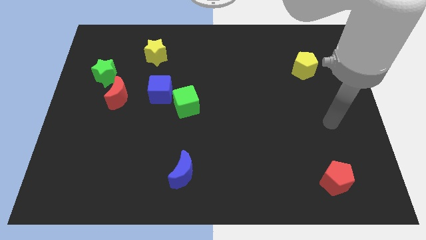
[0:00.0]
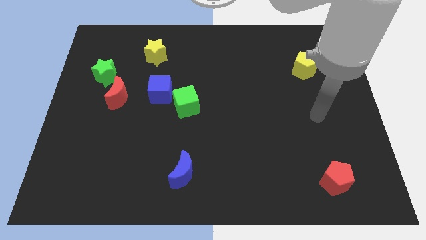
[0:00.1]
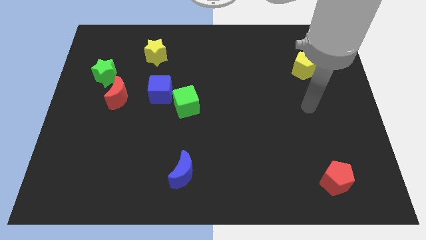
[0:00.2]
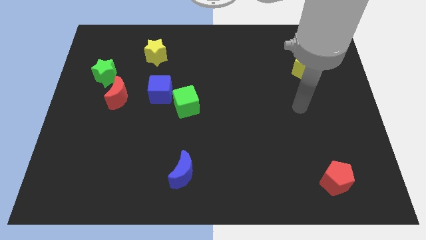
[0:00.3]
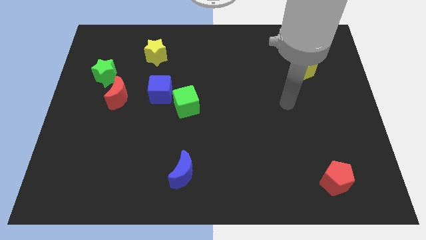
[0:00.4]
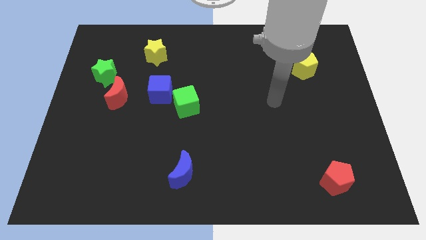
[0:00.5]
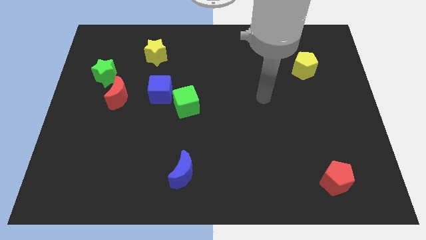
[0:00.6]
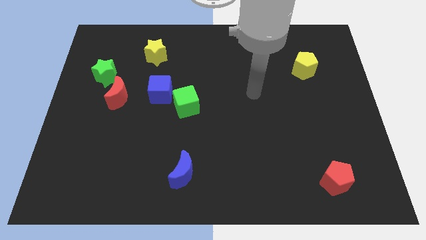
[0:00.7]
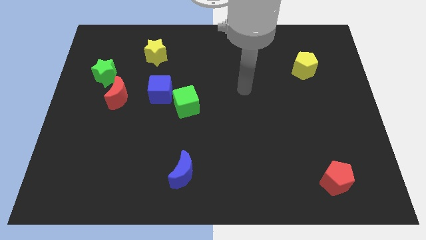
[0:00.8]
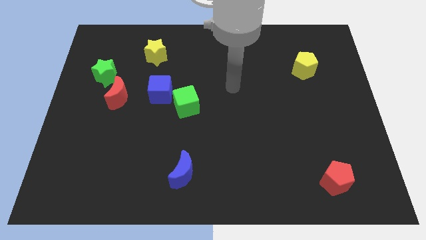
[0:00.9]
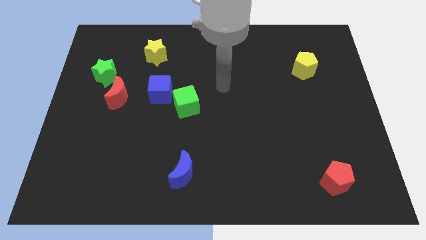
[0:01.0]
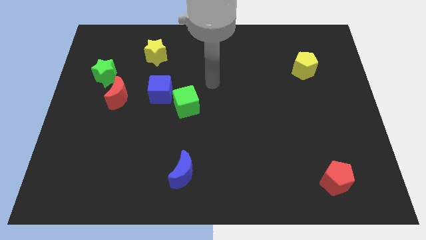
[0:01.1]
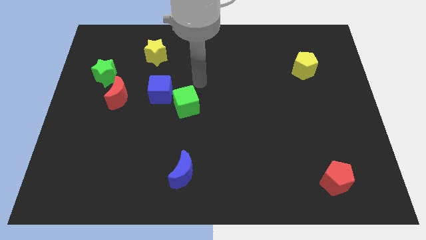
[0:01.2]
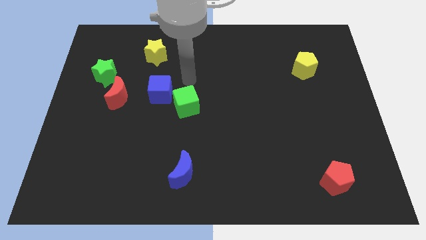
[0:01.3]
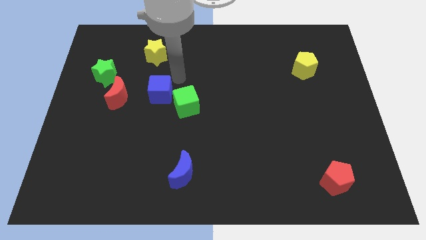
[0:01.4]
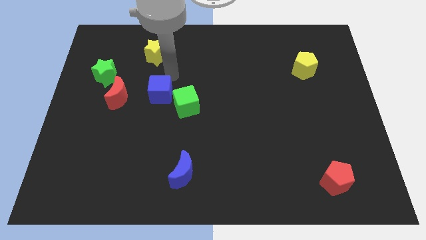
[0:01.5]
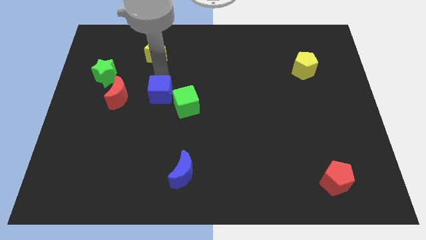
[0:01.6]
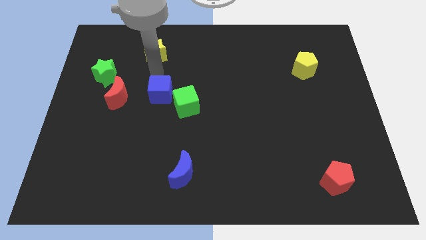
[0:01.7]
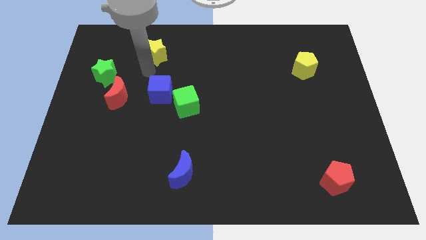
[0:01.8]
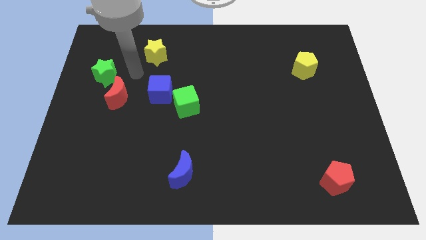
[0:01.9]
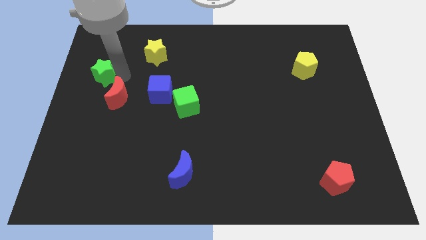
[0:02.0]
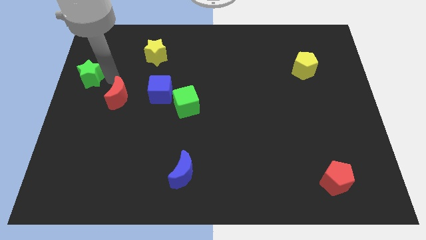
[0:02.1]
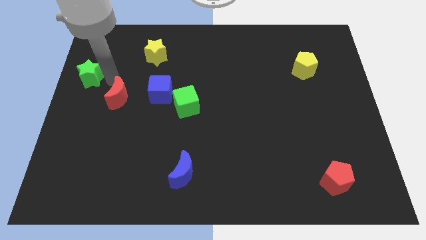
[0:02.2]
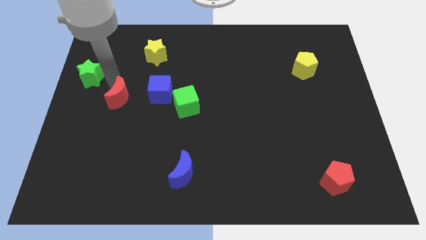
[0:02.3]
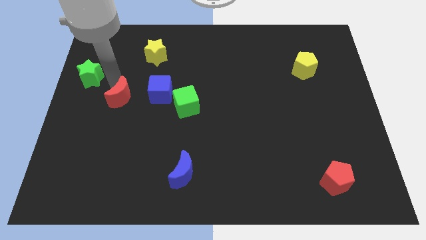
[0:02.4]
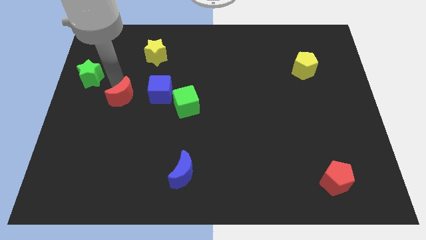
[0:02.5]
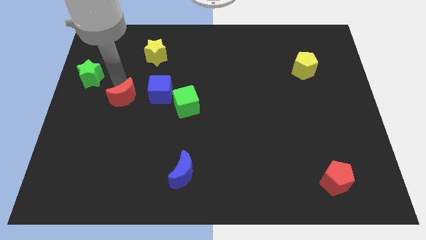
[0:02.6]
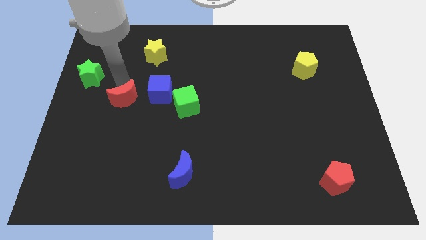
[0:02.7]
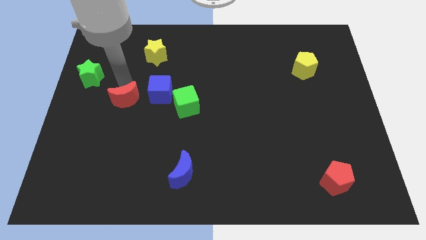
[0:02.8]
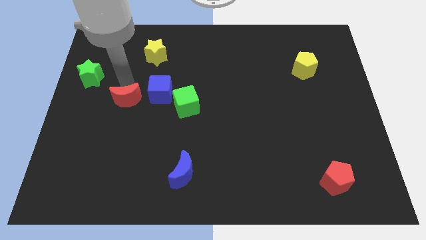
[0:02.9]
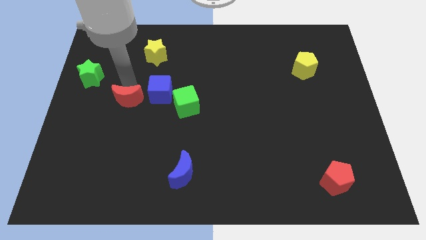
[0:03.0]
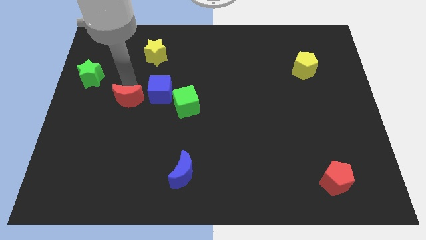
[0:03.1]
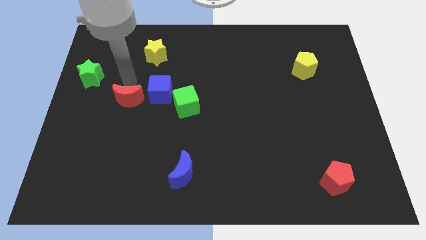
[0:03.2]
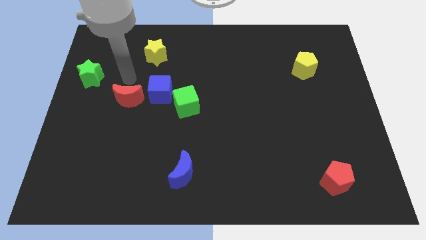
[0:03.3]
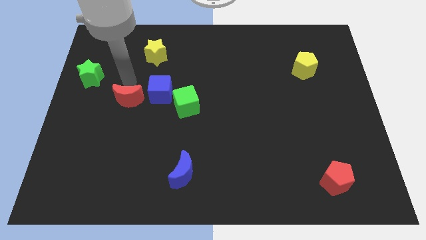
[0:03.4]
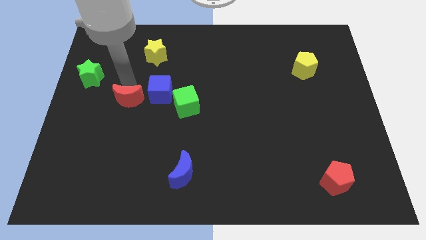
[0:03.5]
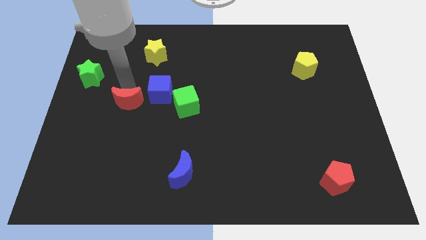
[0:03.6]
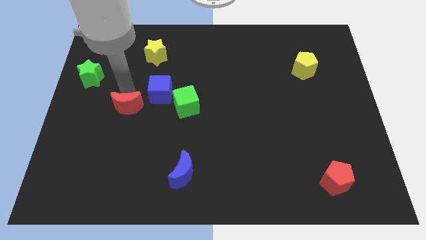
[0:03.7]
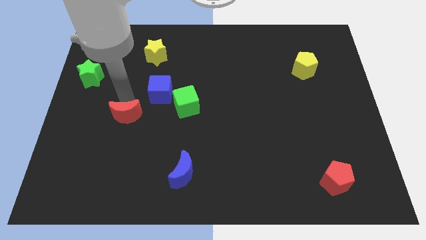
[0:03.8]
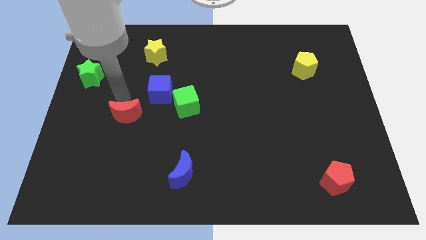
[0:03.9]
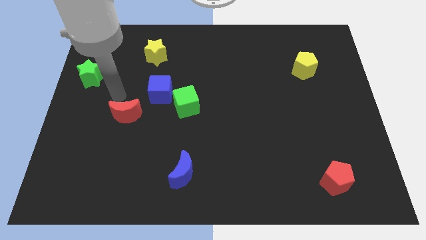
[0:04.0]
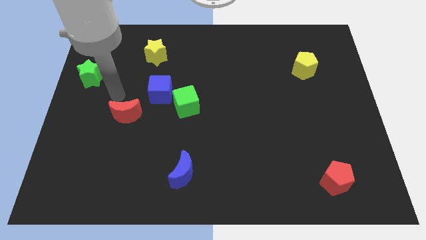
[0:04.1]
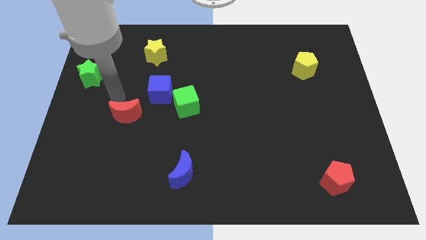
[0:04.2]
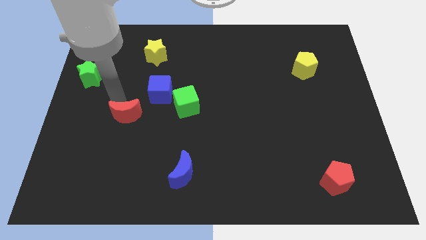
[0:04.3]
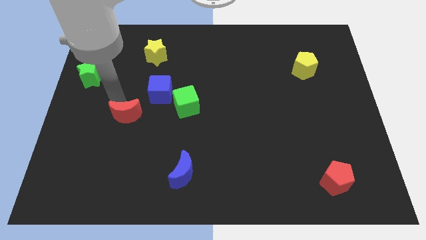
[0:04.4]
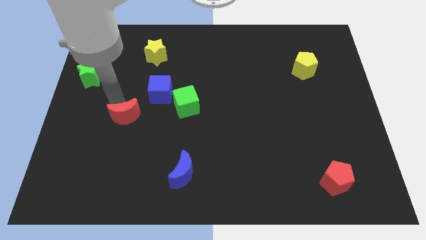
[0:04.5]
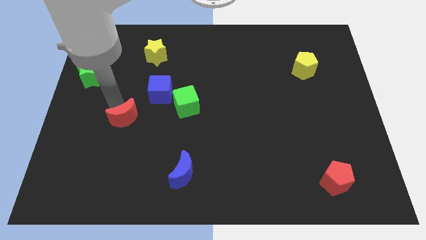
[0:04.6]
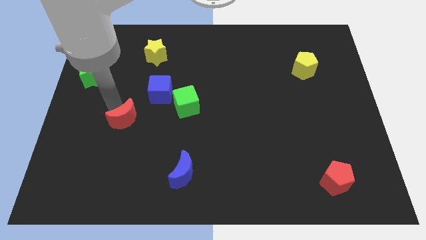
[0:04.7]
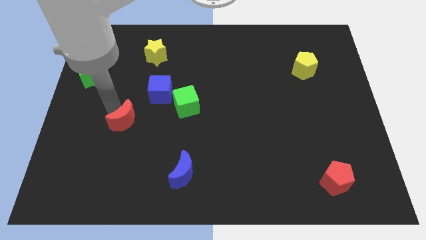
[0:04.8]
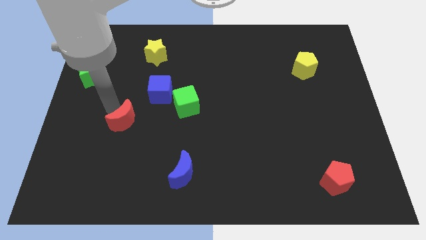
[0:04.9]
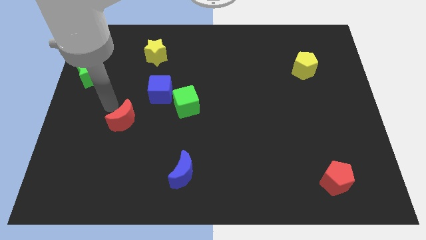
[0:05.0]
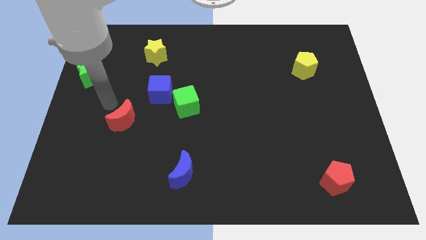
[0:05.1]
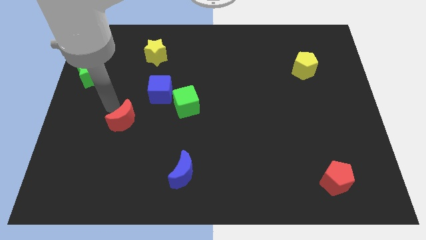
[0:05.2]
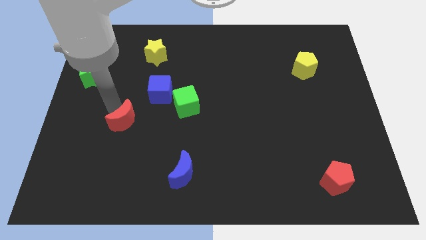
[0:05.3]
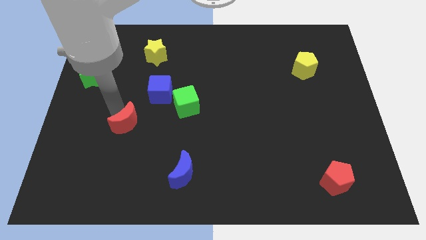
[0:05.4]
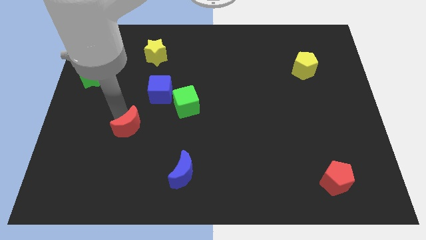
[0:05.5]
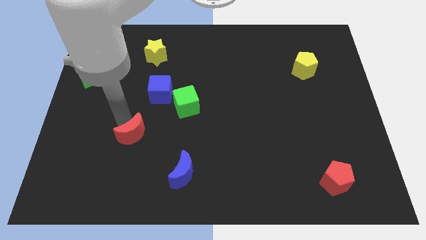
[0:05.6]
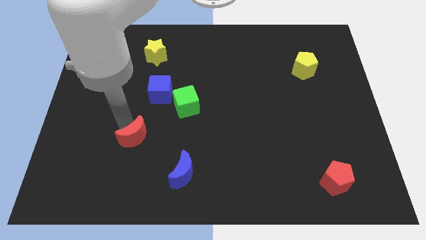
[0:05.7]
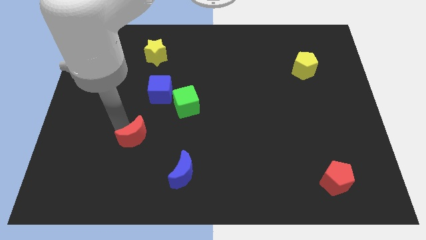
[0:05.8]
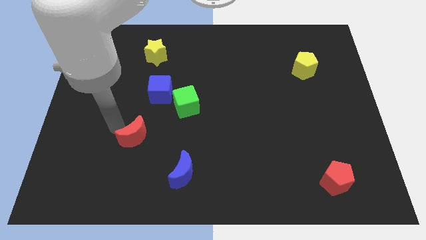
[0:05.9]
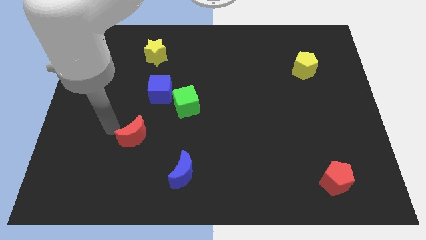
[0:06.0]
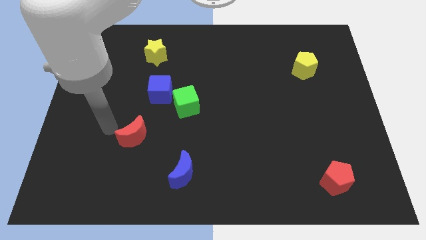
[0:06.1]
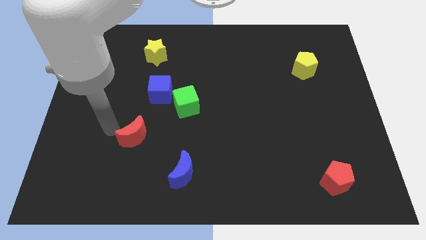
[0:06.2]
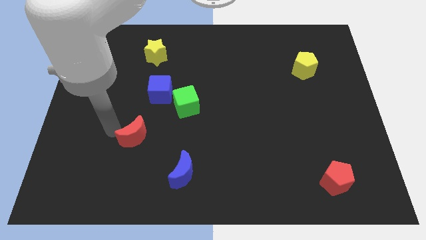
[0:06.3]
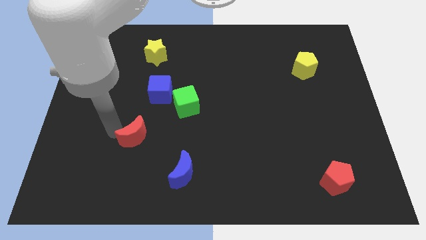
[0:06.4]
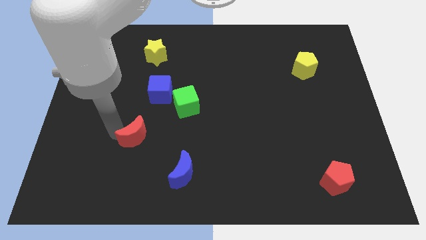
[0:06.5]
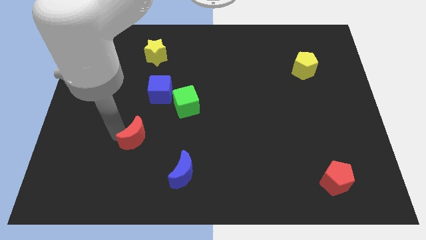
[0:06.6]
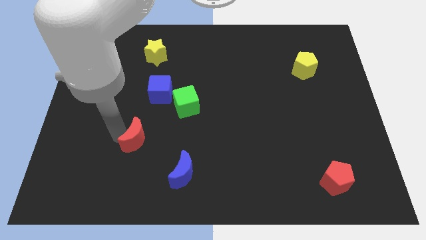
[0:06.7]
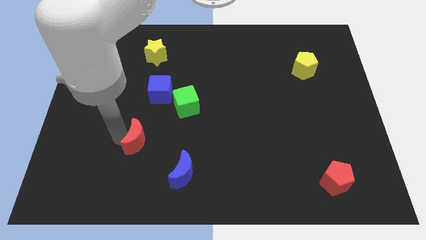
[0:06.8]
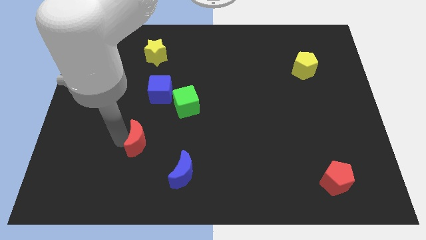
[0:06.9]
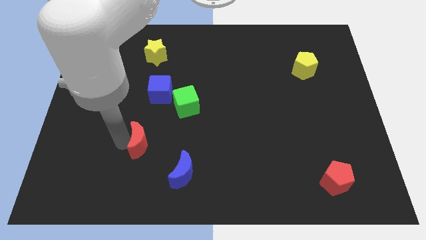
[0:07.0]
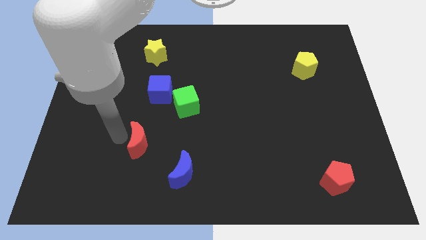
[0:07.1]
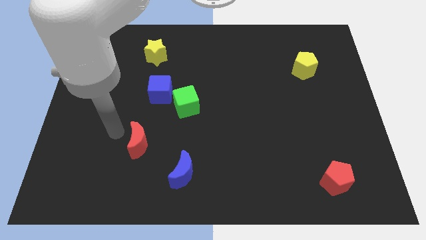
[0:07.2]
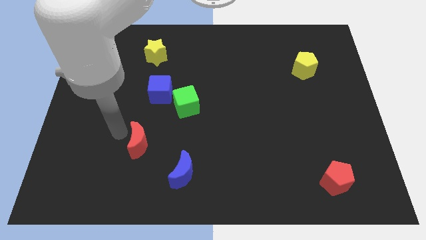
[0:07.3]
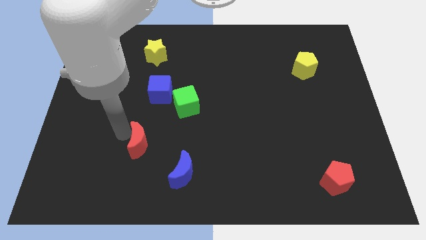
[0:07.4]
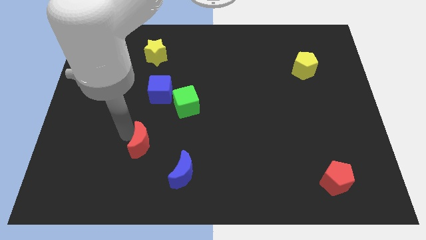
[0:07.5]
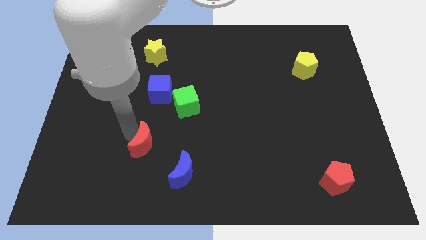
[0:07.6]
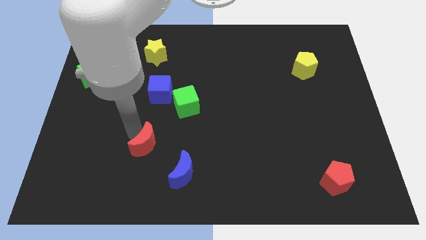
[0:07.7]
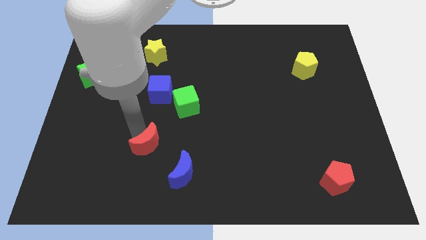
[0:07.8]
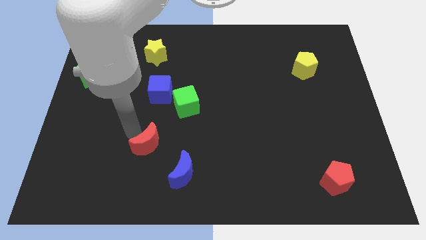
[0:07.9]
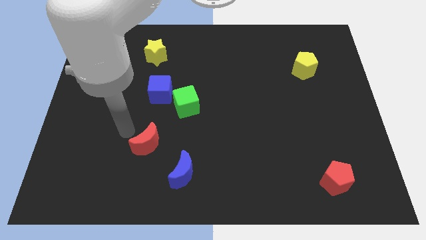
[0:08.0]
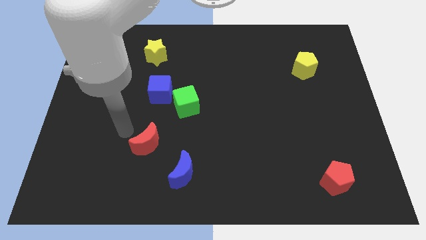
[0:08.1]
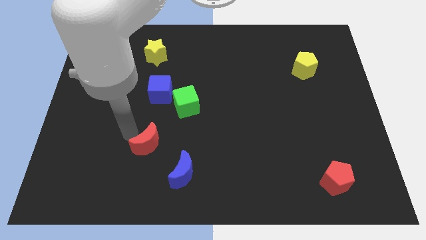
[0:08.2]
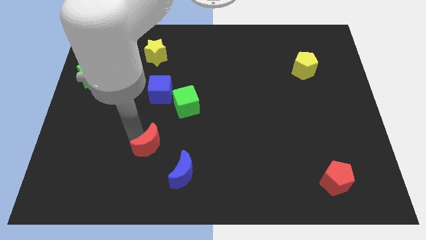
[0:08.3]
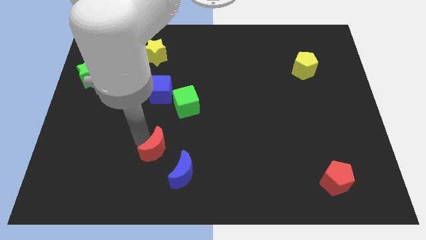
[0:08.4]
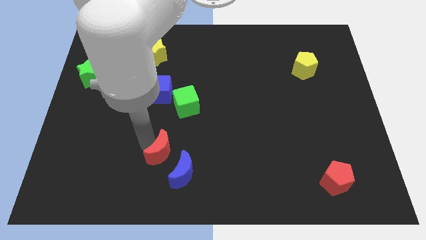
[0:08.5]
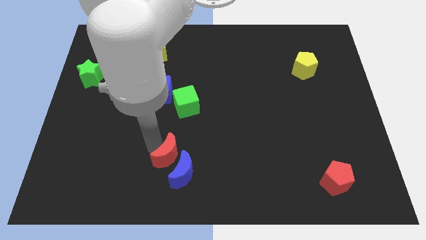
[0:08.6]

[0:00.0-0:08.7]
push the red moon close to the blue moon
